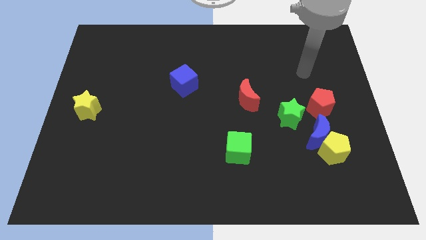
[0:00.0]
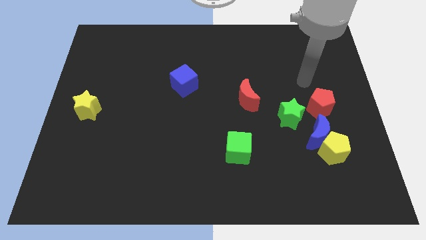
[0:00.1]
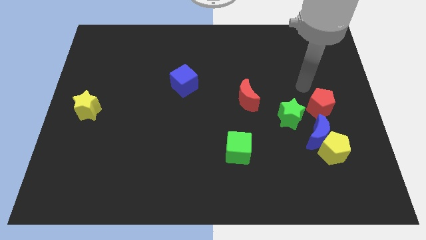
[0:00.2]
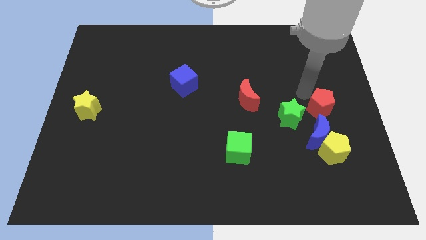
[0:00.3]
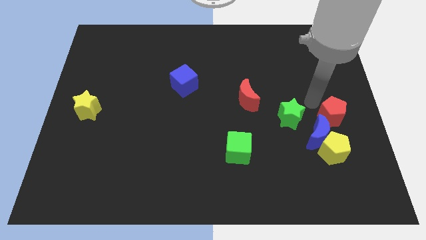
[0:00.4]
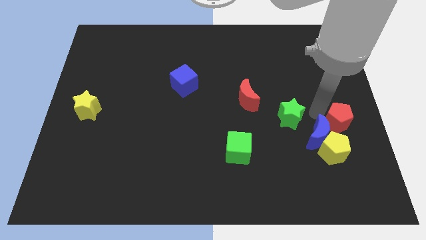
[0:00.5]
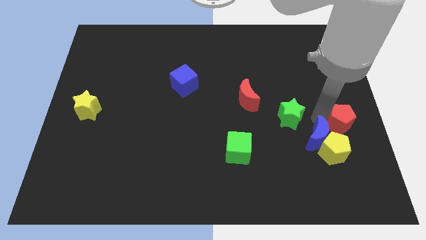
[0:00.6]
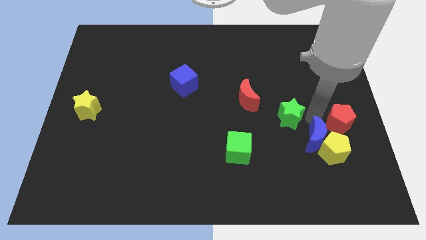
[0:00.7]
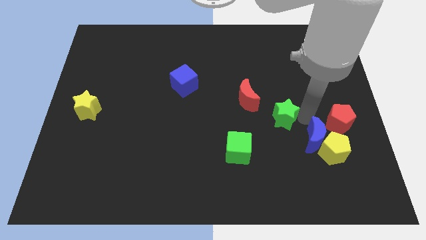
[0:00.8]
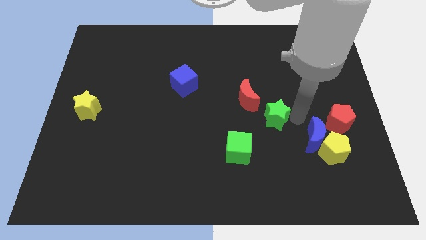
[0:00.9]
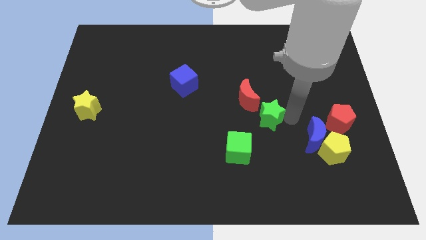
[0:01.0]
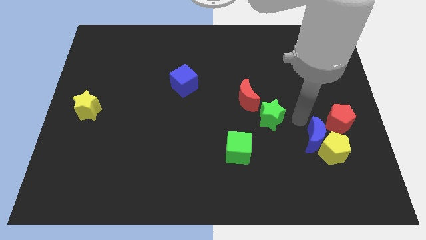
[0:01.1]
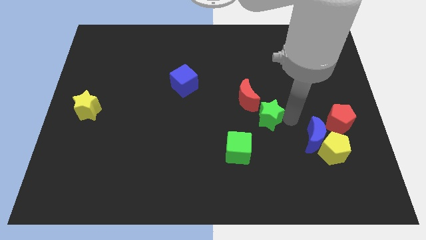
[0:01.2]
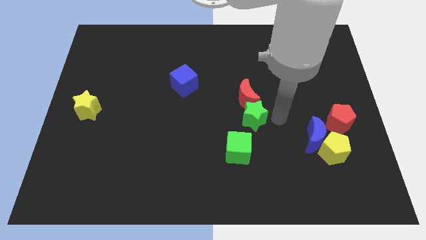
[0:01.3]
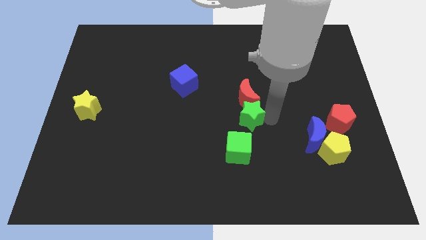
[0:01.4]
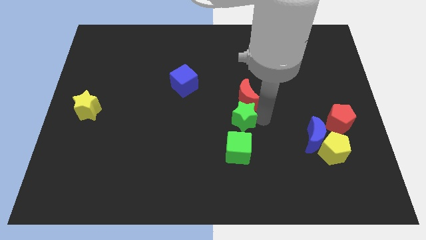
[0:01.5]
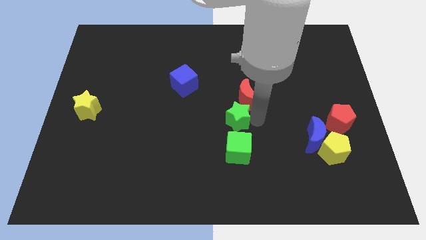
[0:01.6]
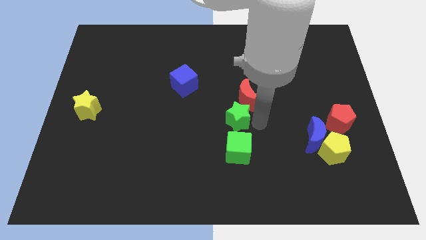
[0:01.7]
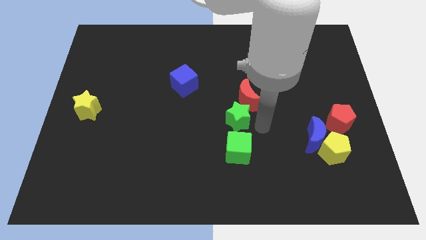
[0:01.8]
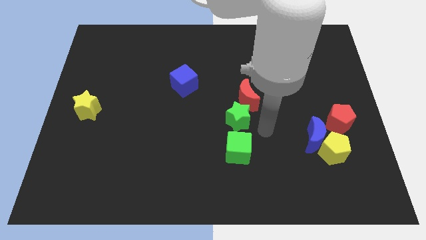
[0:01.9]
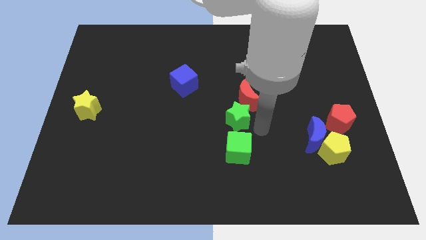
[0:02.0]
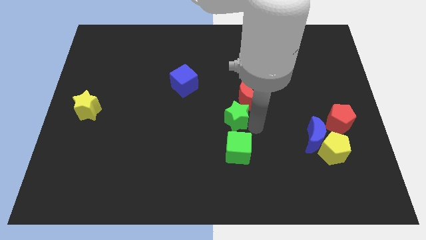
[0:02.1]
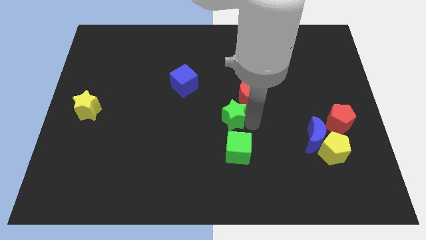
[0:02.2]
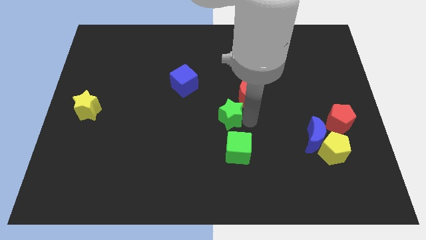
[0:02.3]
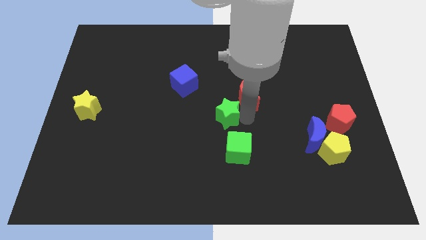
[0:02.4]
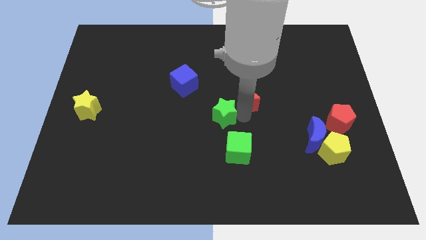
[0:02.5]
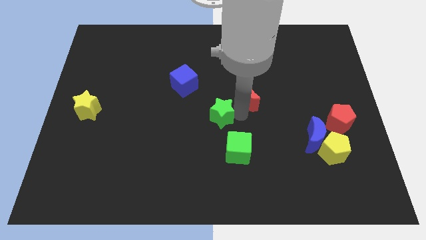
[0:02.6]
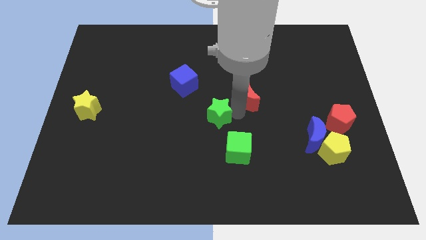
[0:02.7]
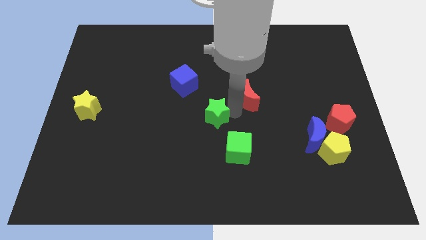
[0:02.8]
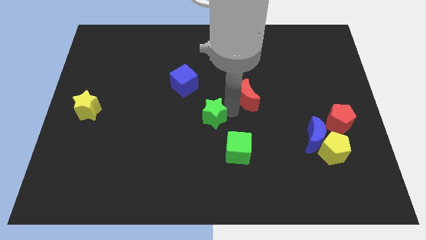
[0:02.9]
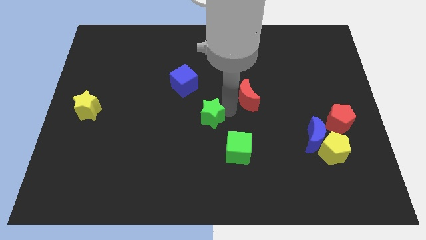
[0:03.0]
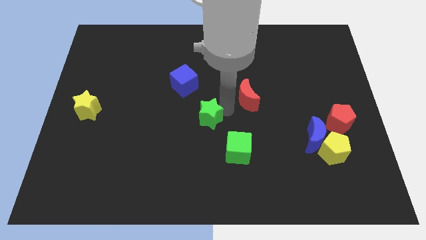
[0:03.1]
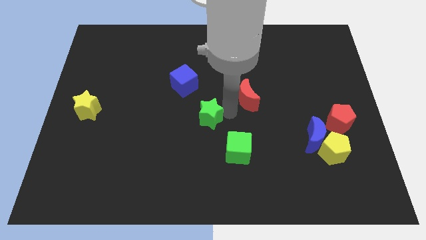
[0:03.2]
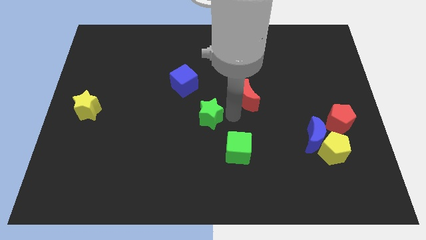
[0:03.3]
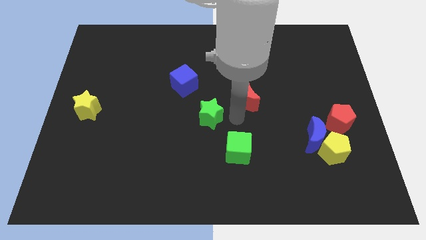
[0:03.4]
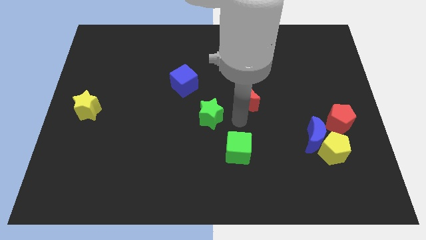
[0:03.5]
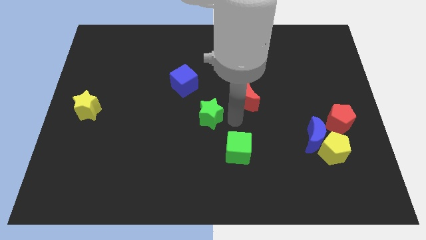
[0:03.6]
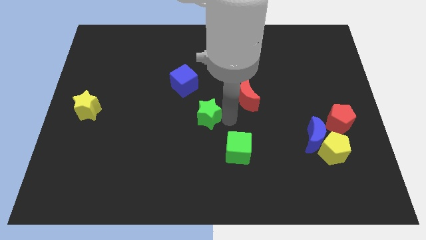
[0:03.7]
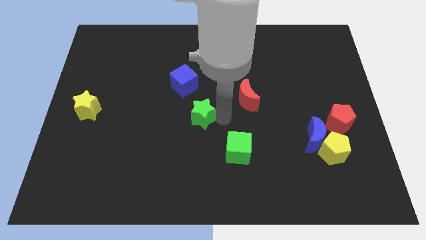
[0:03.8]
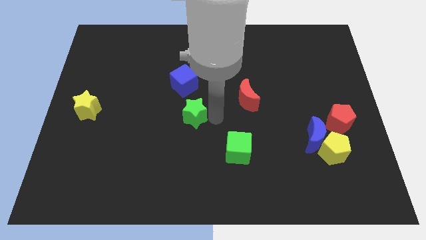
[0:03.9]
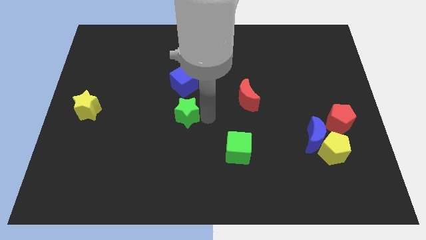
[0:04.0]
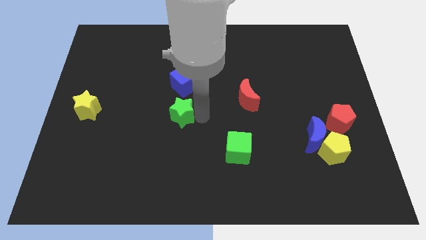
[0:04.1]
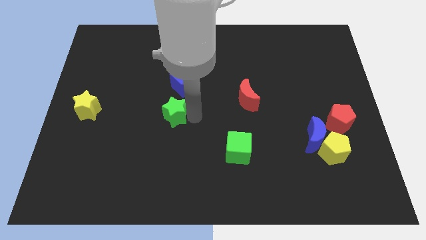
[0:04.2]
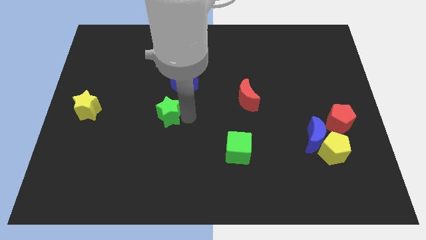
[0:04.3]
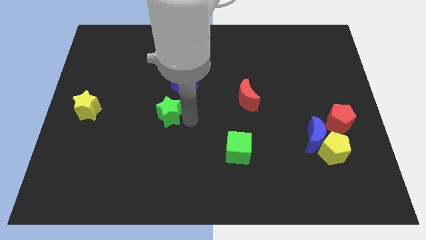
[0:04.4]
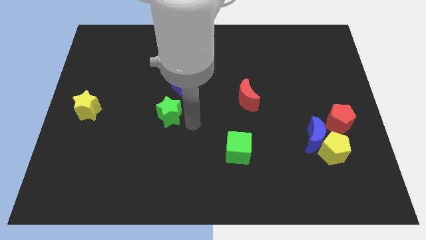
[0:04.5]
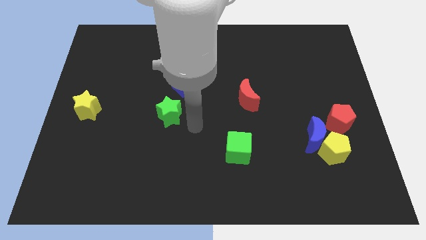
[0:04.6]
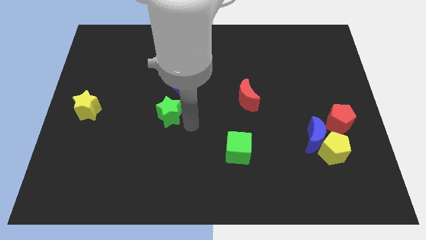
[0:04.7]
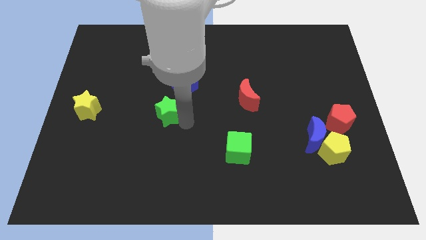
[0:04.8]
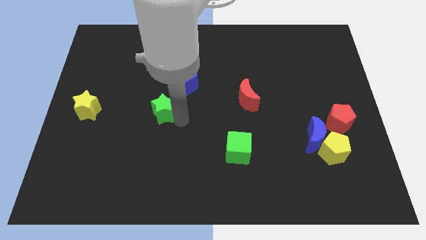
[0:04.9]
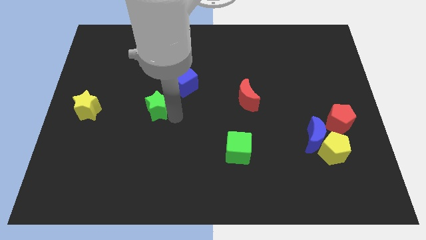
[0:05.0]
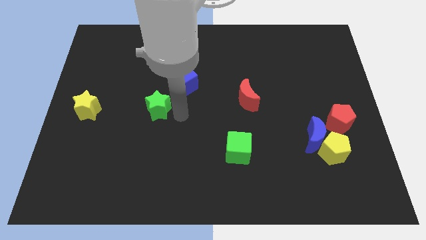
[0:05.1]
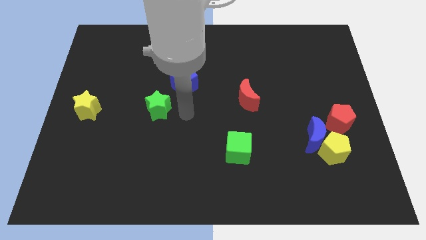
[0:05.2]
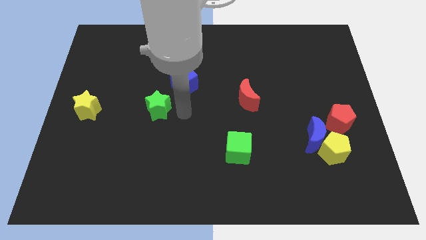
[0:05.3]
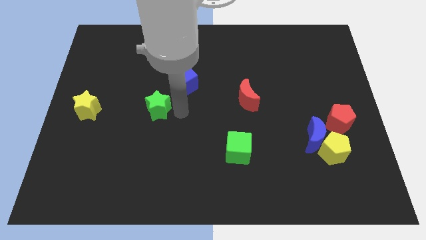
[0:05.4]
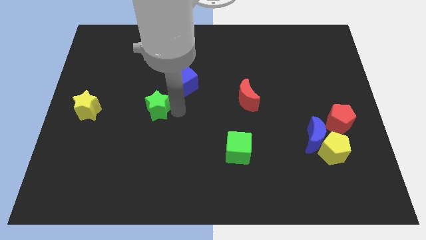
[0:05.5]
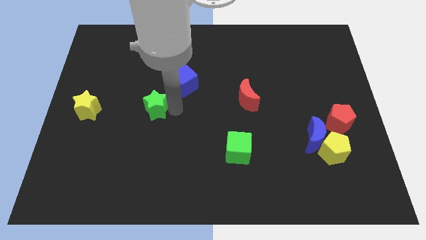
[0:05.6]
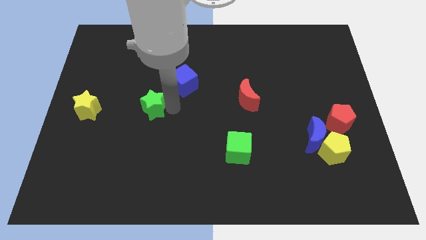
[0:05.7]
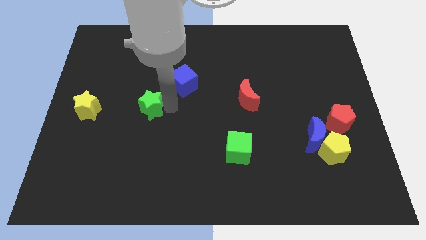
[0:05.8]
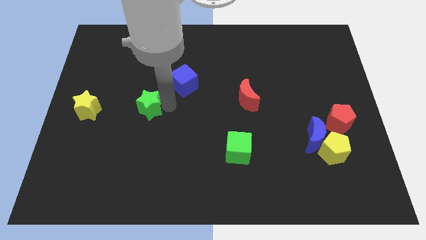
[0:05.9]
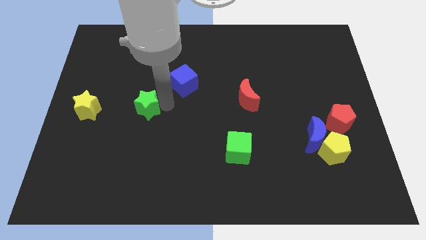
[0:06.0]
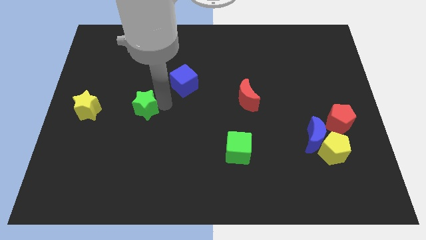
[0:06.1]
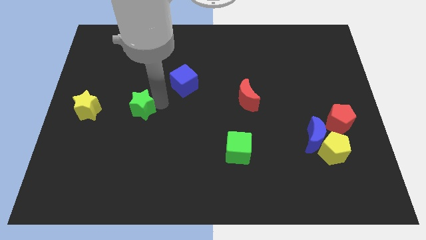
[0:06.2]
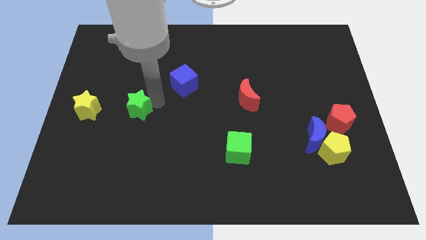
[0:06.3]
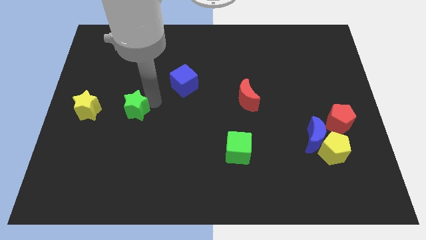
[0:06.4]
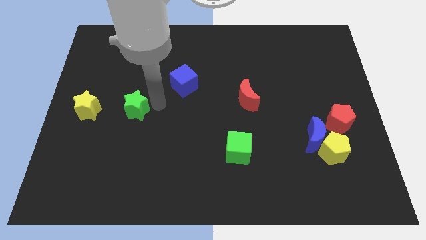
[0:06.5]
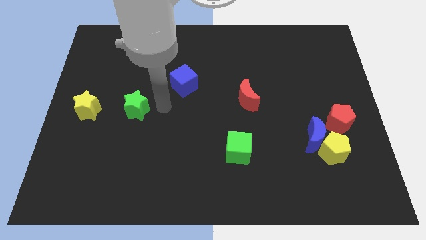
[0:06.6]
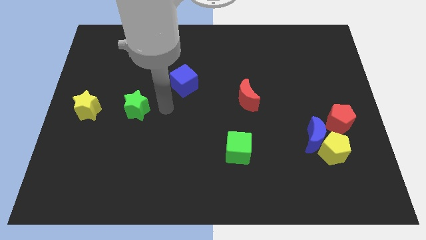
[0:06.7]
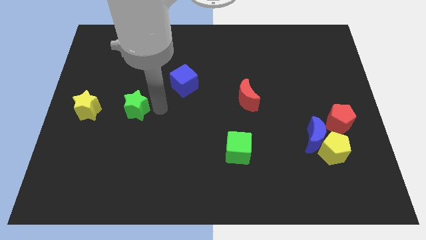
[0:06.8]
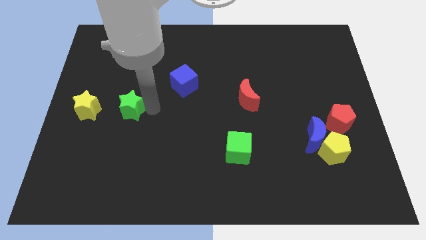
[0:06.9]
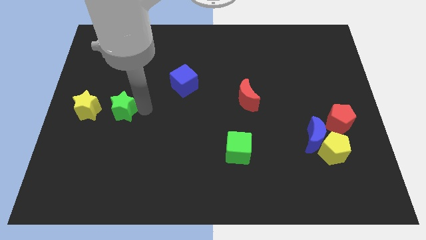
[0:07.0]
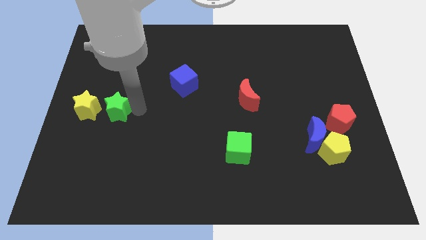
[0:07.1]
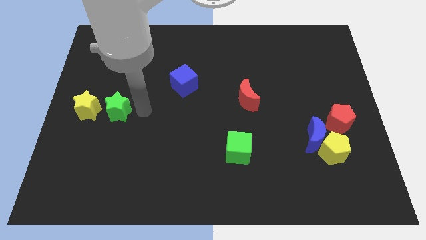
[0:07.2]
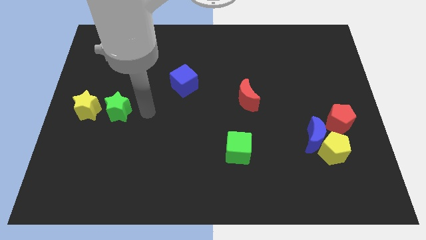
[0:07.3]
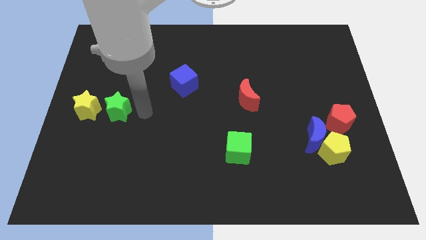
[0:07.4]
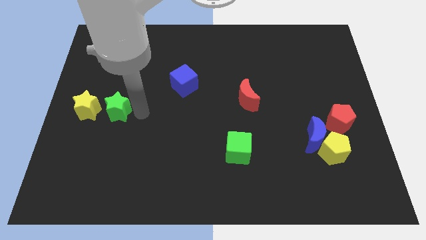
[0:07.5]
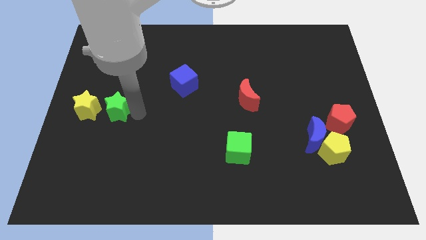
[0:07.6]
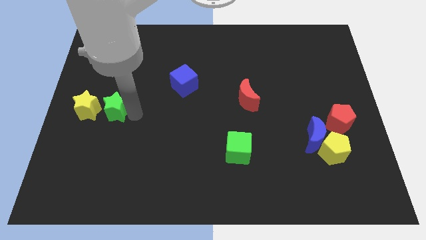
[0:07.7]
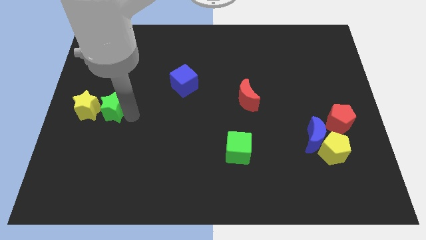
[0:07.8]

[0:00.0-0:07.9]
slide the green star towards the yellow star
